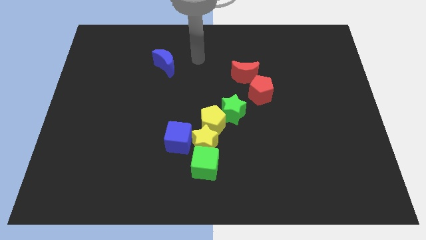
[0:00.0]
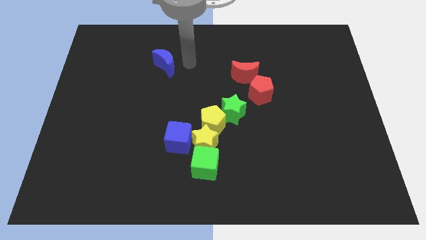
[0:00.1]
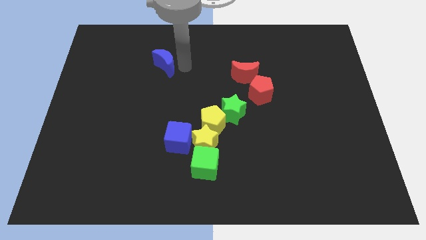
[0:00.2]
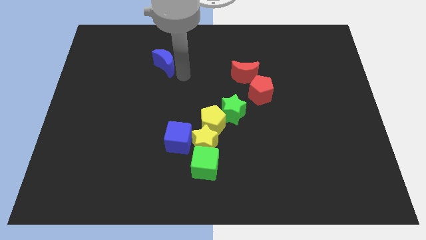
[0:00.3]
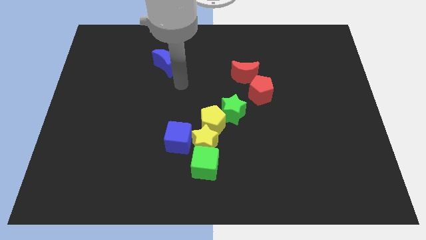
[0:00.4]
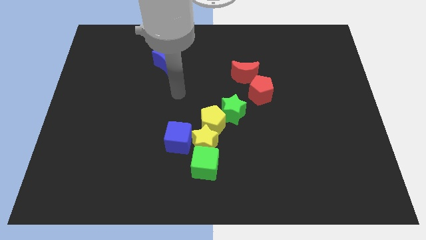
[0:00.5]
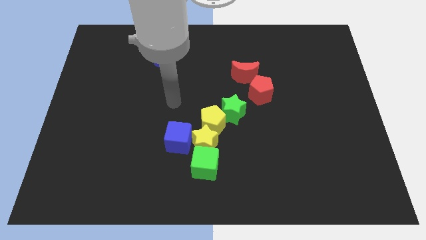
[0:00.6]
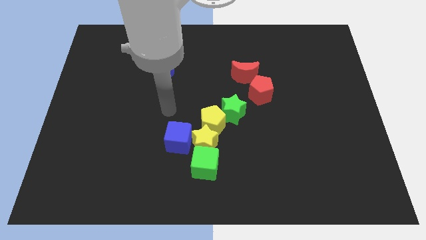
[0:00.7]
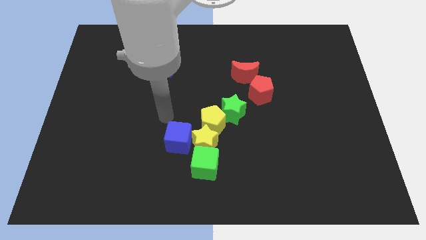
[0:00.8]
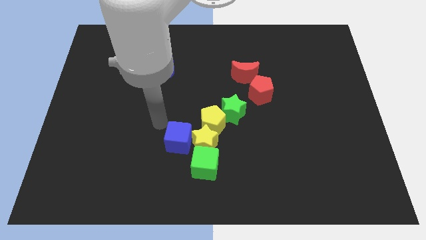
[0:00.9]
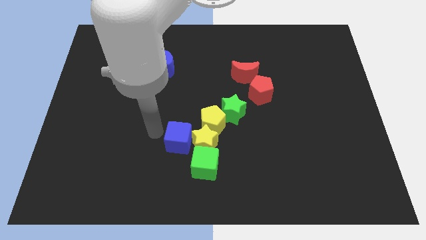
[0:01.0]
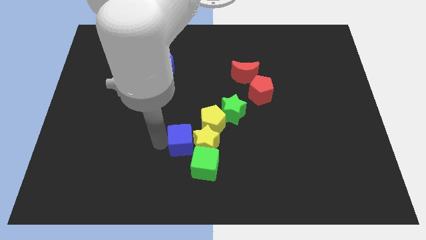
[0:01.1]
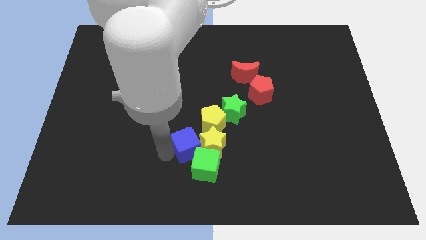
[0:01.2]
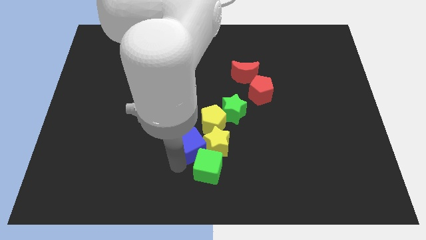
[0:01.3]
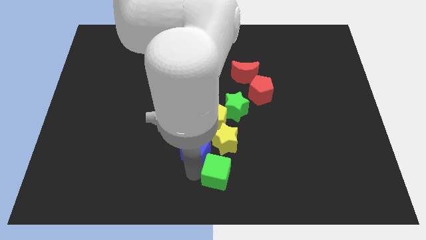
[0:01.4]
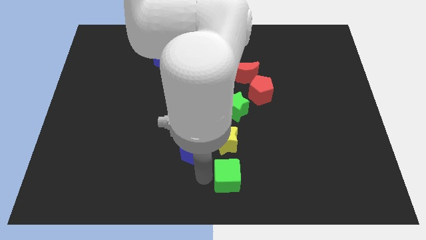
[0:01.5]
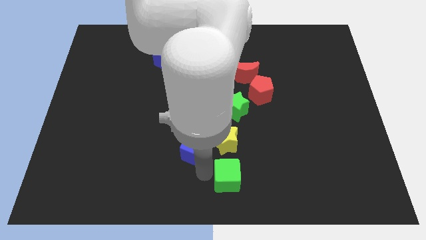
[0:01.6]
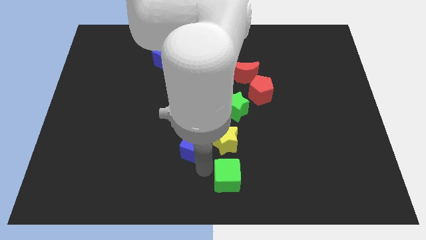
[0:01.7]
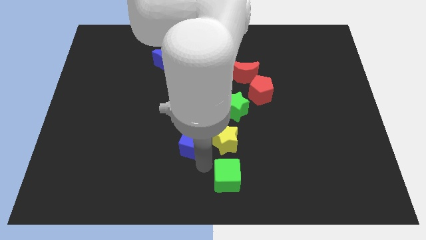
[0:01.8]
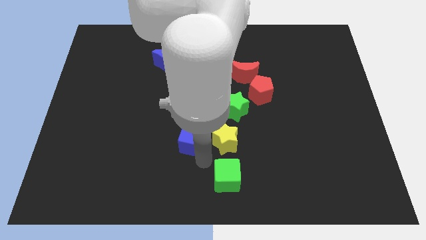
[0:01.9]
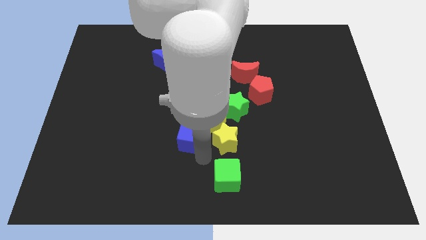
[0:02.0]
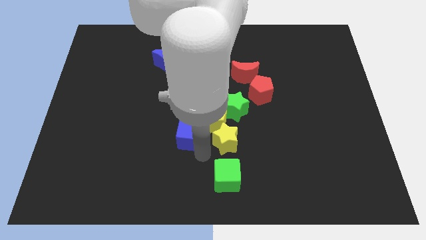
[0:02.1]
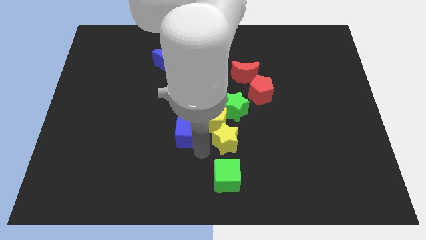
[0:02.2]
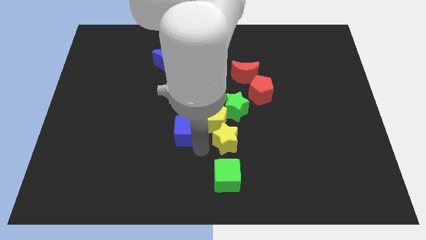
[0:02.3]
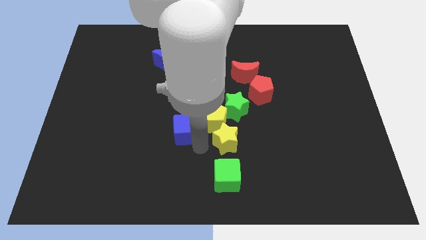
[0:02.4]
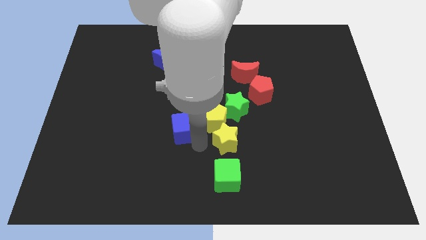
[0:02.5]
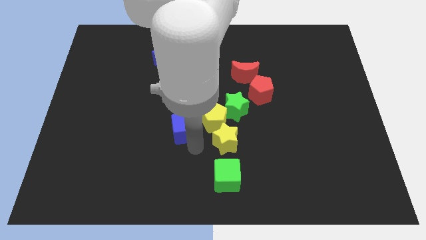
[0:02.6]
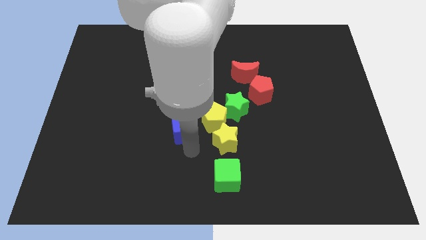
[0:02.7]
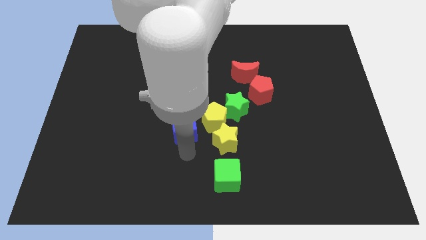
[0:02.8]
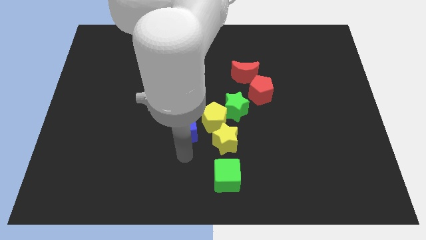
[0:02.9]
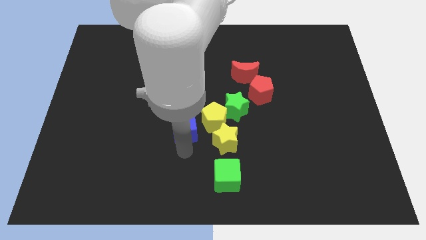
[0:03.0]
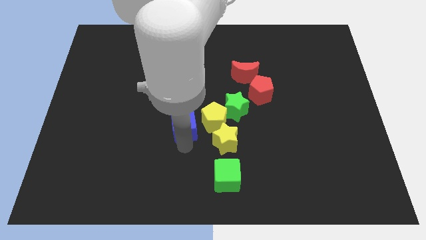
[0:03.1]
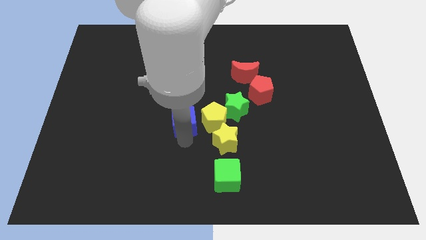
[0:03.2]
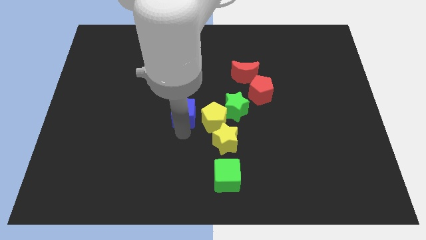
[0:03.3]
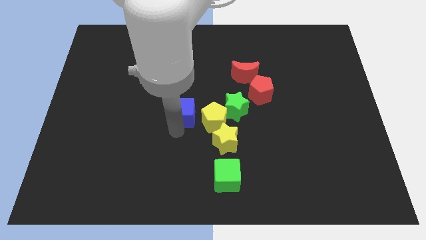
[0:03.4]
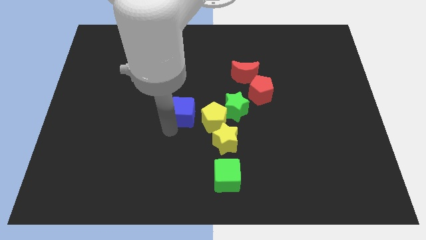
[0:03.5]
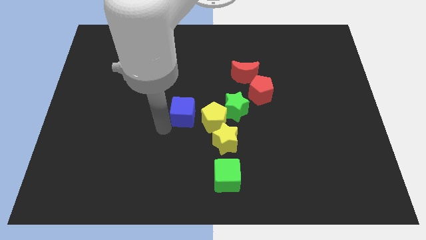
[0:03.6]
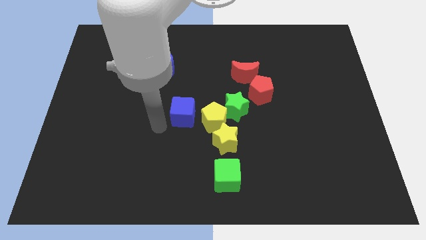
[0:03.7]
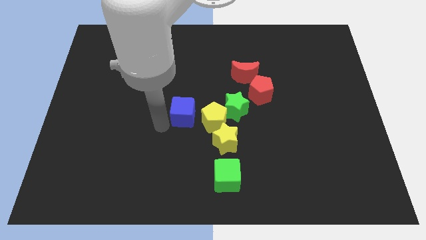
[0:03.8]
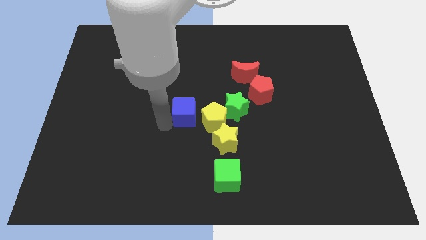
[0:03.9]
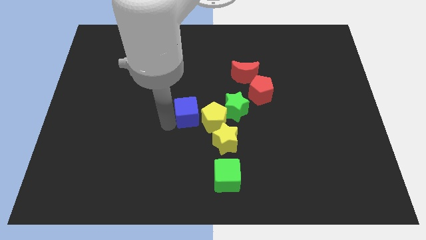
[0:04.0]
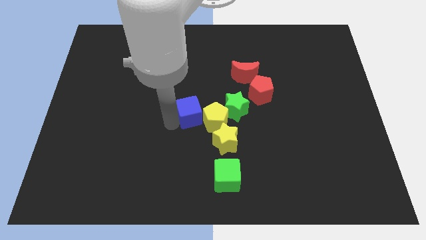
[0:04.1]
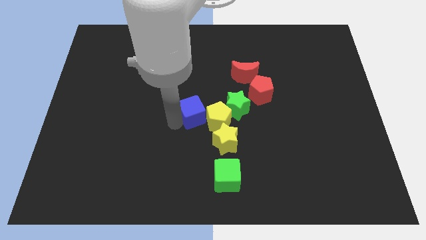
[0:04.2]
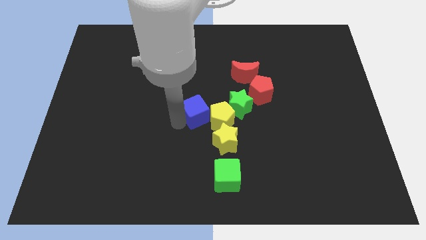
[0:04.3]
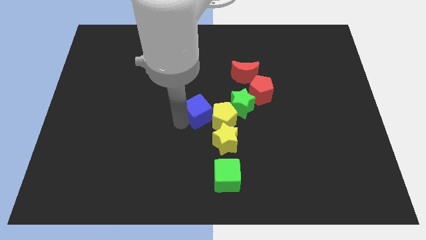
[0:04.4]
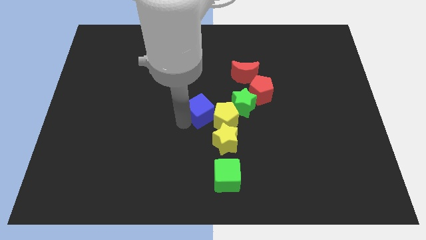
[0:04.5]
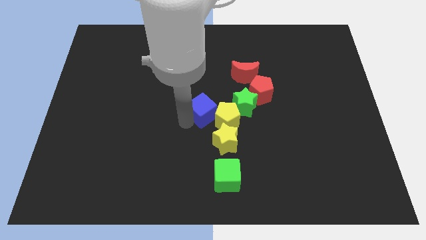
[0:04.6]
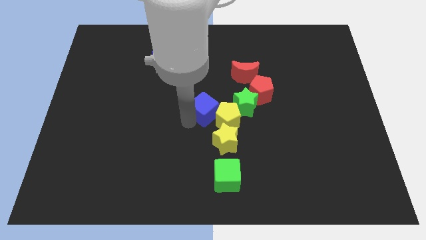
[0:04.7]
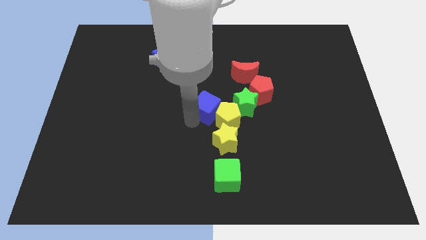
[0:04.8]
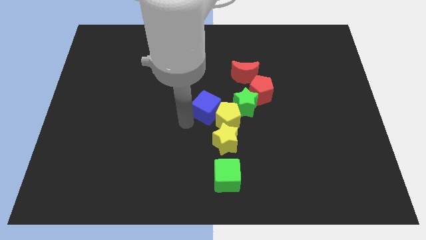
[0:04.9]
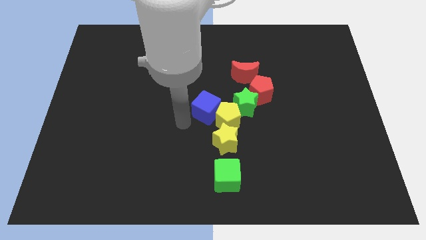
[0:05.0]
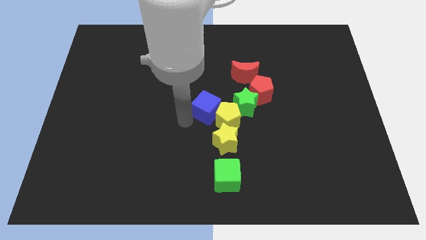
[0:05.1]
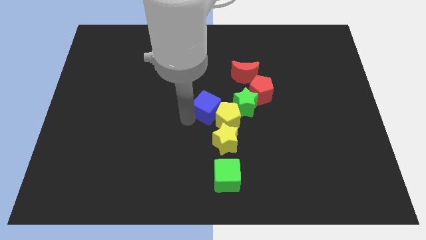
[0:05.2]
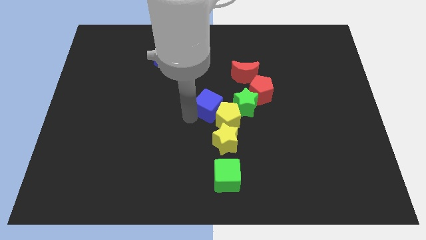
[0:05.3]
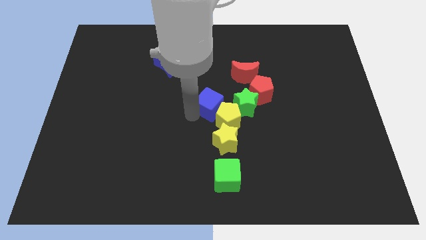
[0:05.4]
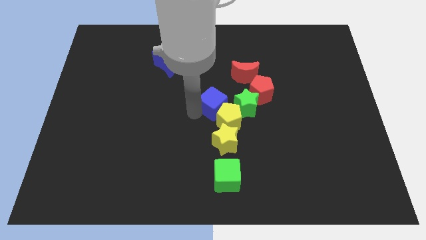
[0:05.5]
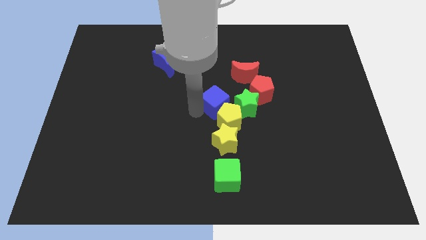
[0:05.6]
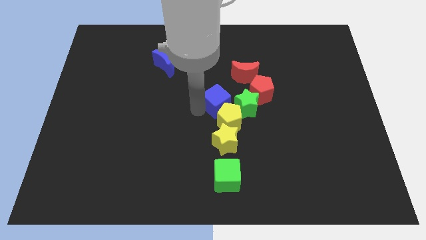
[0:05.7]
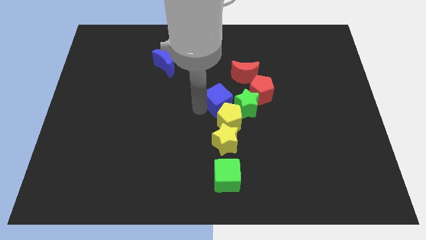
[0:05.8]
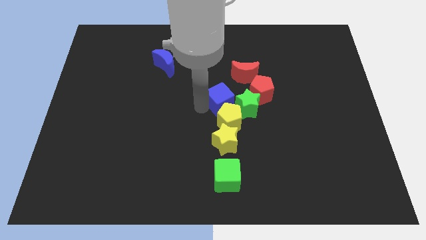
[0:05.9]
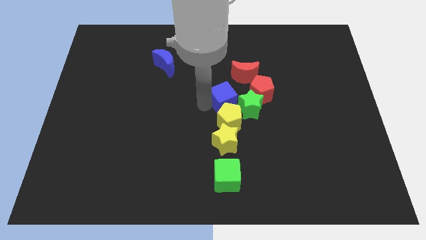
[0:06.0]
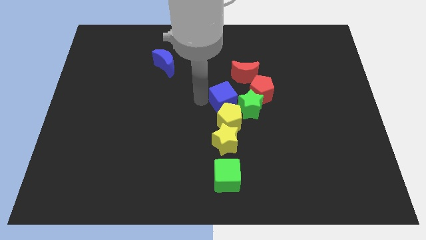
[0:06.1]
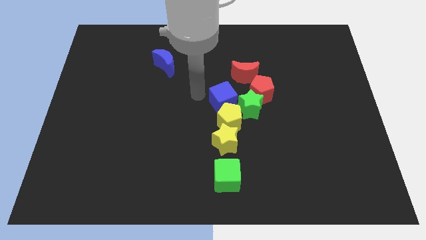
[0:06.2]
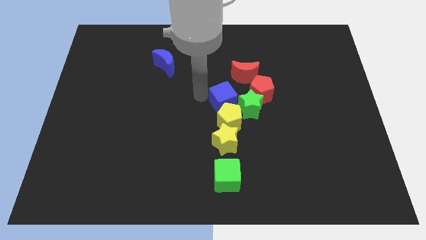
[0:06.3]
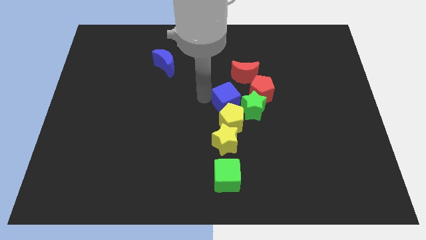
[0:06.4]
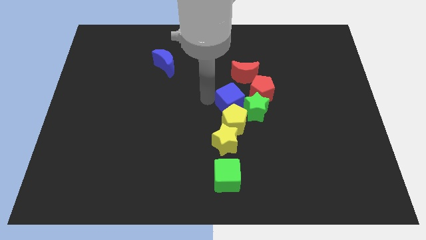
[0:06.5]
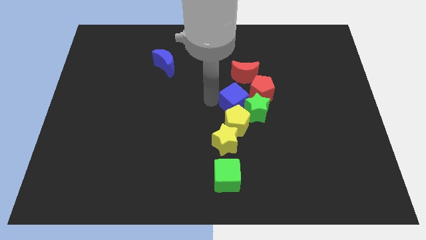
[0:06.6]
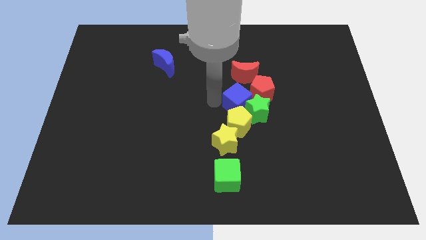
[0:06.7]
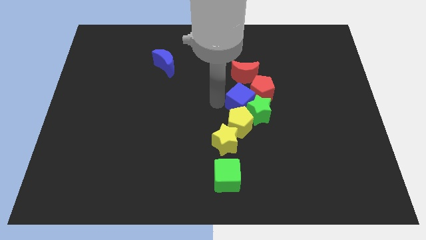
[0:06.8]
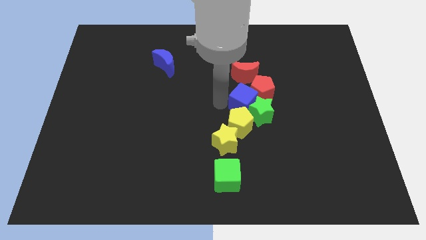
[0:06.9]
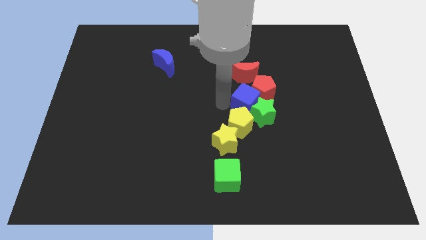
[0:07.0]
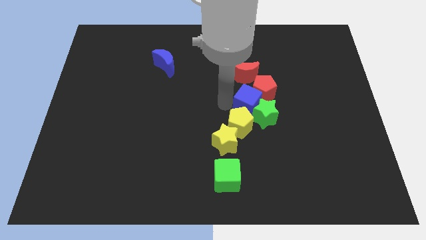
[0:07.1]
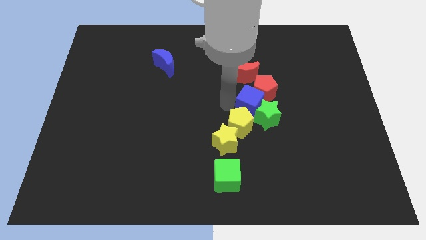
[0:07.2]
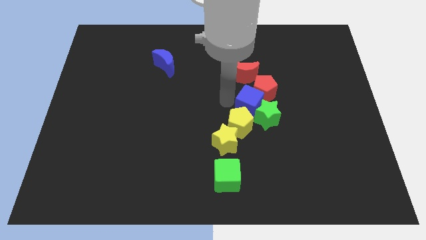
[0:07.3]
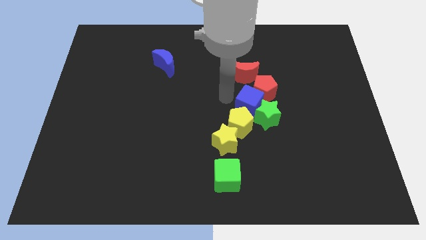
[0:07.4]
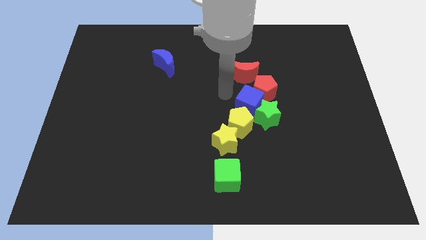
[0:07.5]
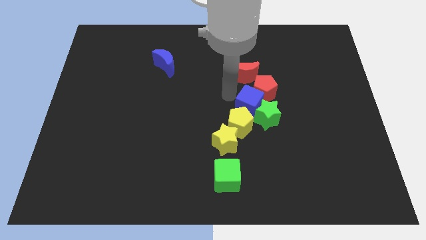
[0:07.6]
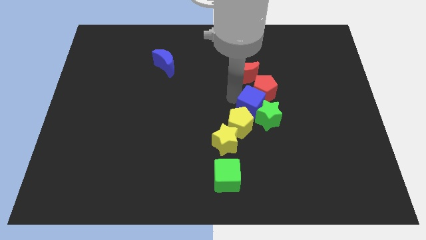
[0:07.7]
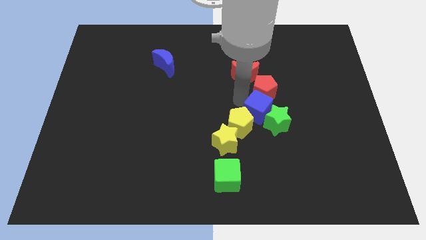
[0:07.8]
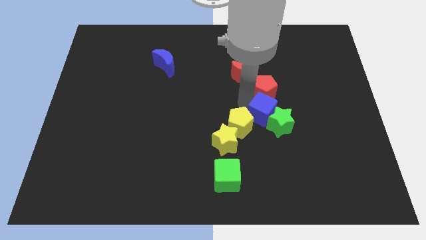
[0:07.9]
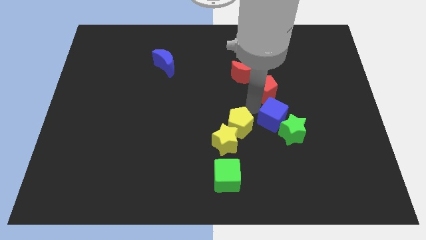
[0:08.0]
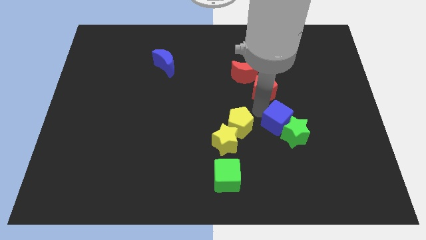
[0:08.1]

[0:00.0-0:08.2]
push the blue cube to the right
